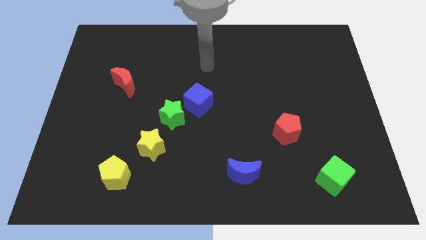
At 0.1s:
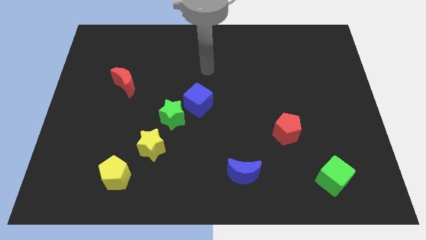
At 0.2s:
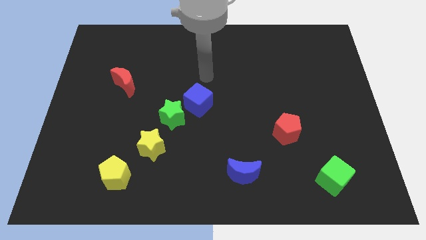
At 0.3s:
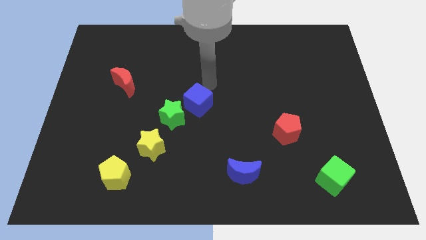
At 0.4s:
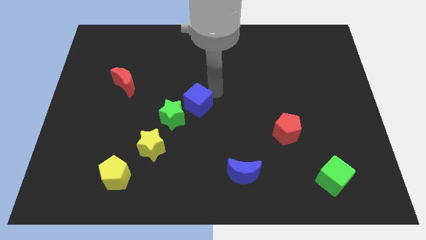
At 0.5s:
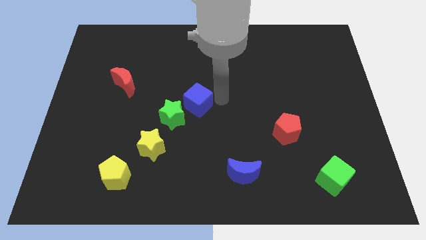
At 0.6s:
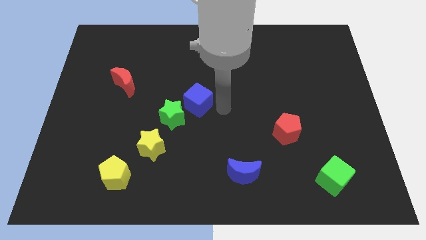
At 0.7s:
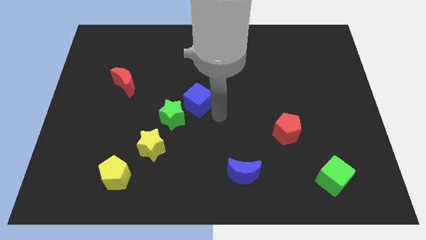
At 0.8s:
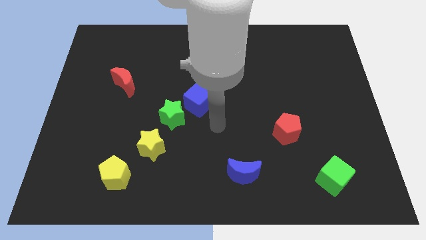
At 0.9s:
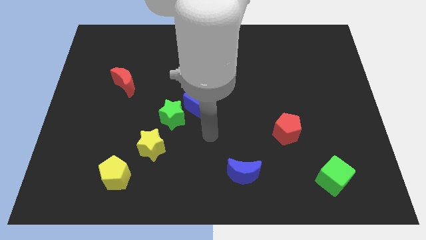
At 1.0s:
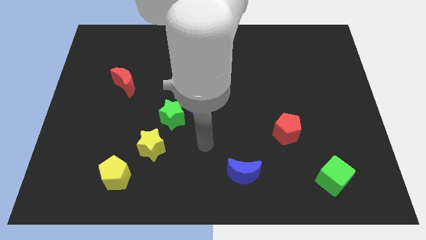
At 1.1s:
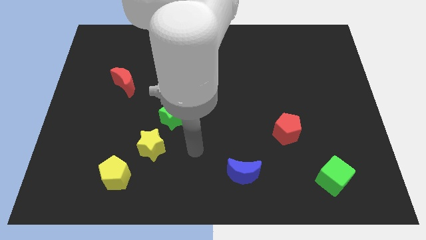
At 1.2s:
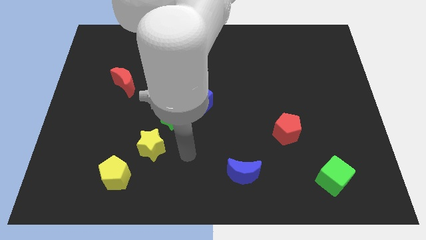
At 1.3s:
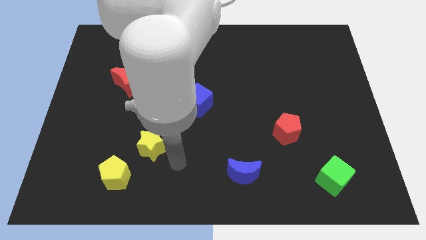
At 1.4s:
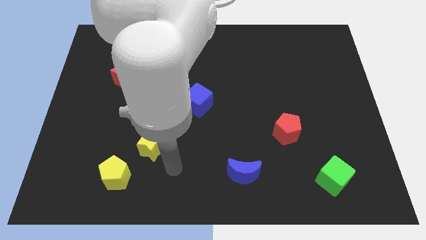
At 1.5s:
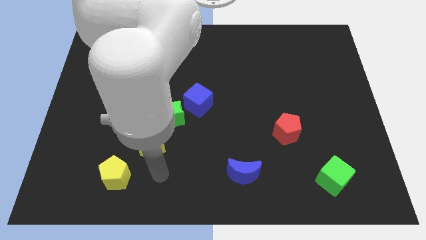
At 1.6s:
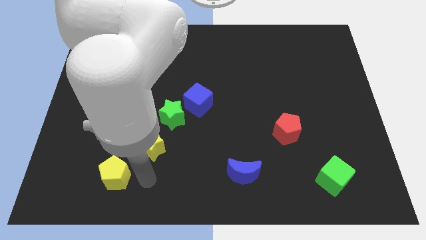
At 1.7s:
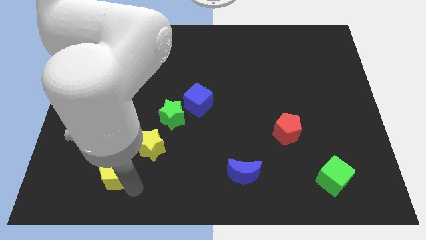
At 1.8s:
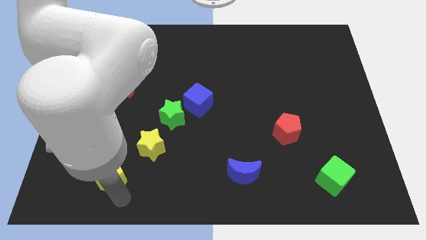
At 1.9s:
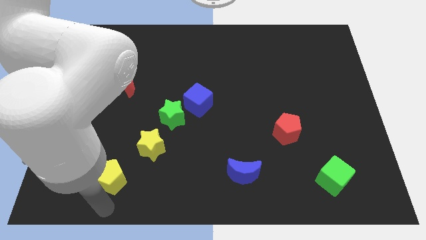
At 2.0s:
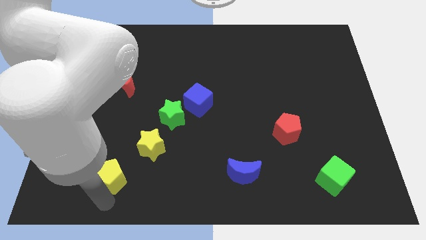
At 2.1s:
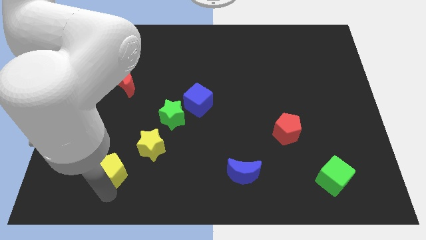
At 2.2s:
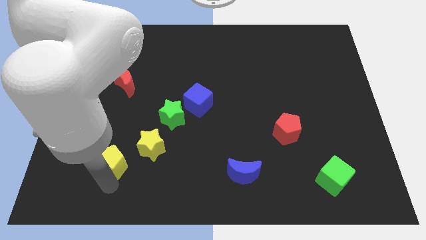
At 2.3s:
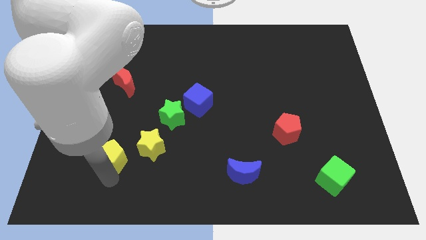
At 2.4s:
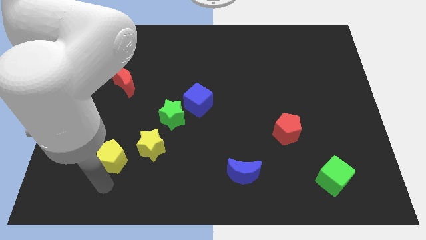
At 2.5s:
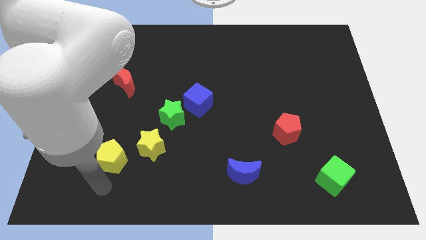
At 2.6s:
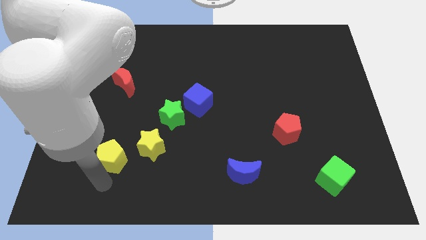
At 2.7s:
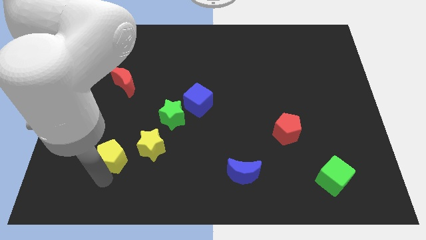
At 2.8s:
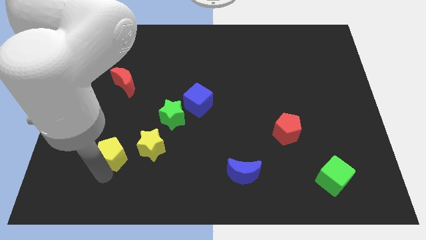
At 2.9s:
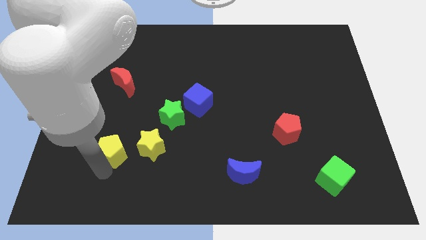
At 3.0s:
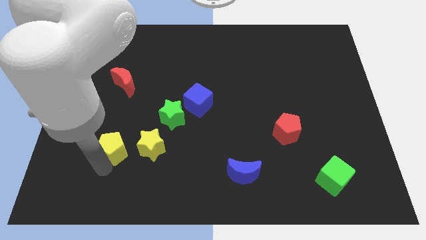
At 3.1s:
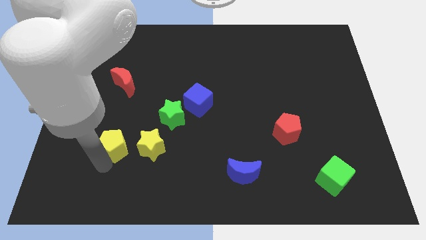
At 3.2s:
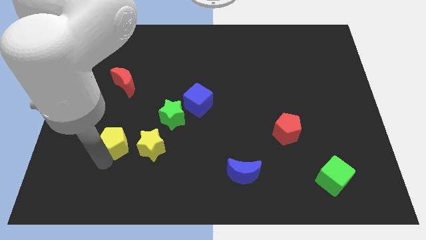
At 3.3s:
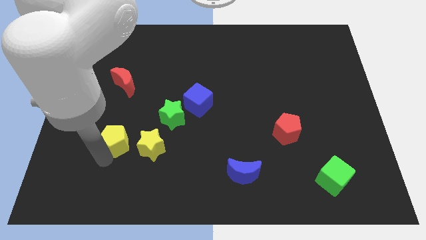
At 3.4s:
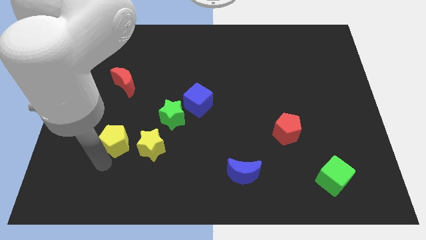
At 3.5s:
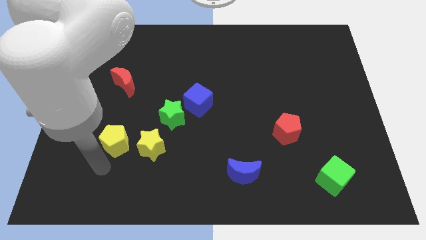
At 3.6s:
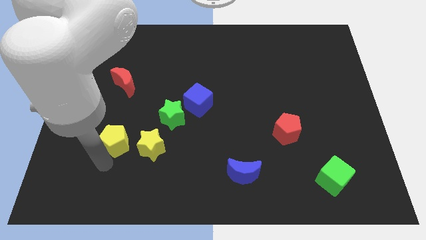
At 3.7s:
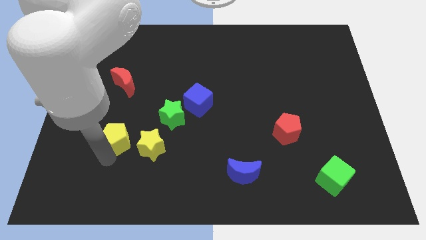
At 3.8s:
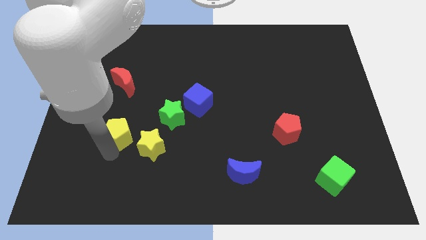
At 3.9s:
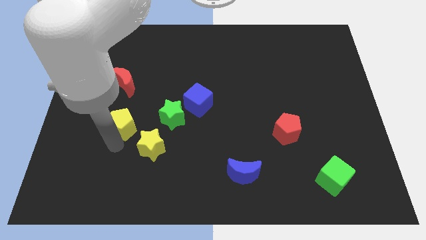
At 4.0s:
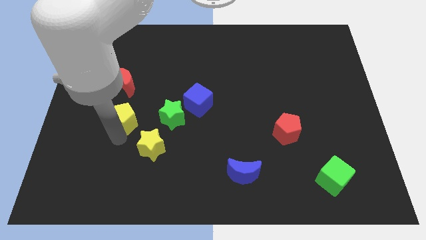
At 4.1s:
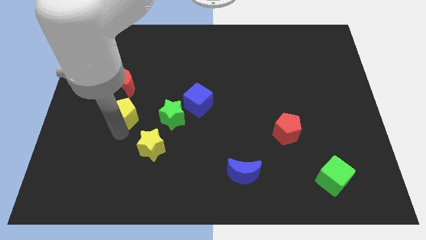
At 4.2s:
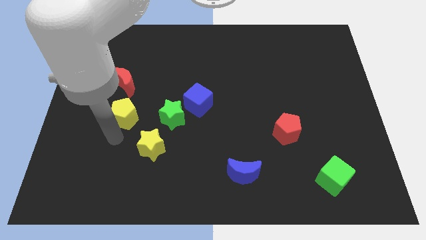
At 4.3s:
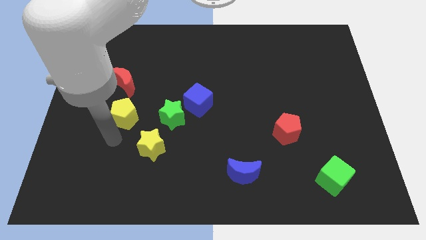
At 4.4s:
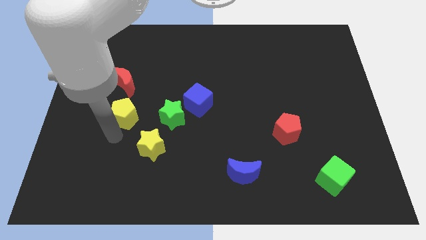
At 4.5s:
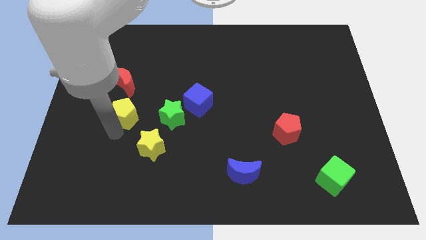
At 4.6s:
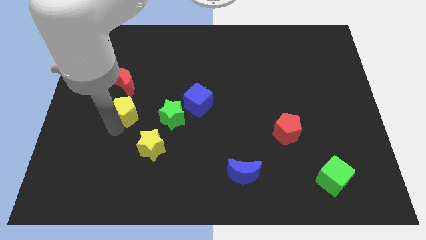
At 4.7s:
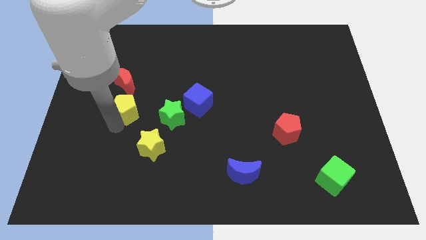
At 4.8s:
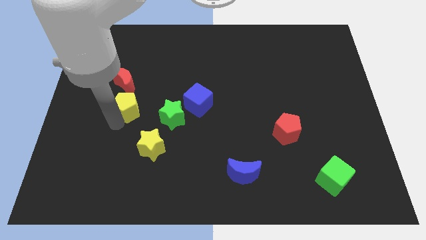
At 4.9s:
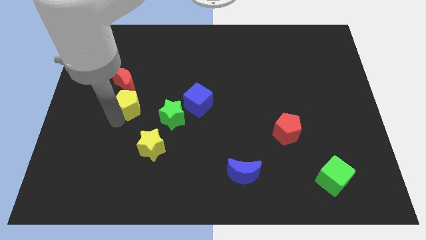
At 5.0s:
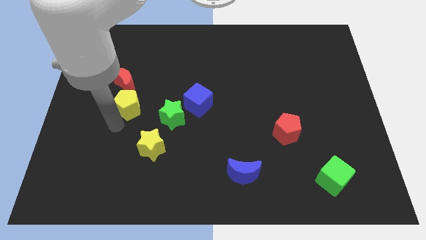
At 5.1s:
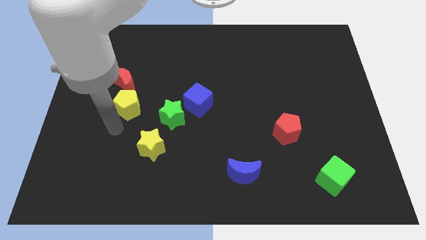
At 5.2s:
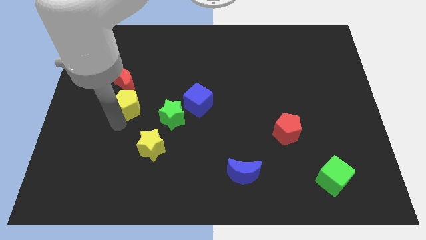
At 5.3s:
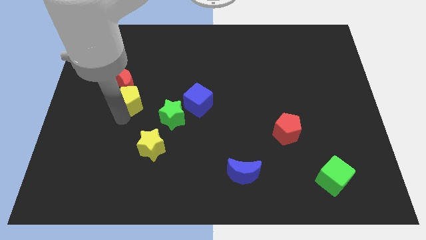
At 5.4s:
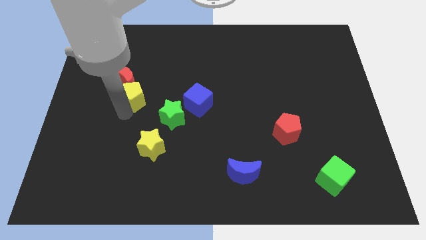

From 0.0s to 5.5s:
move the yellow pentagon upwards

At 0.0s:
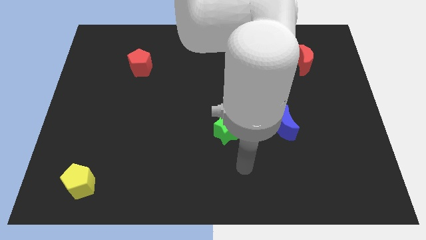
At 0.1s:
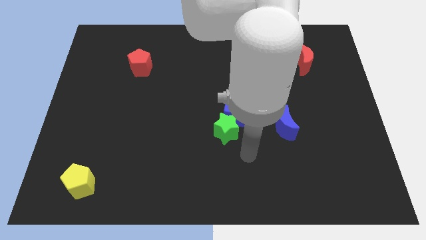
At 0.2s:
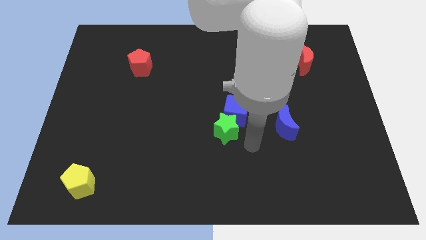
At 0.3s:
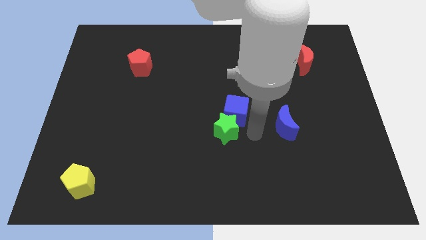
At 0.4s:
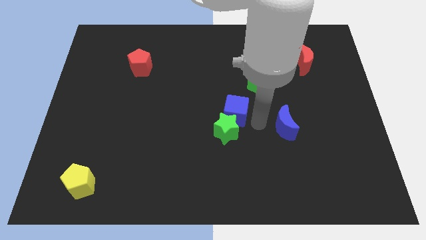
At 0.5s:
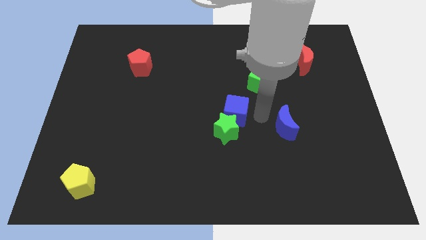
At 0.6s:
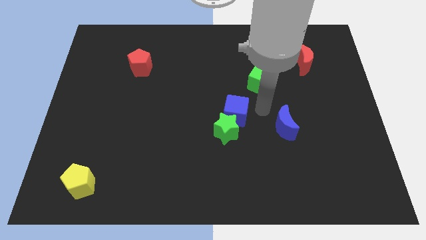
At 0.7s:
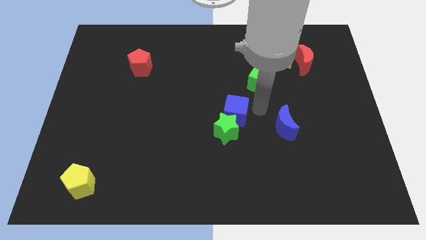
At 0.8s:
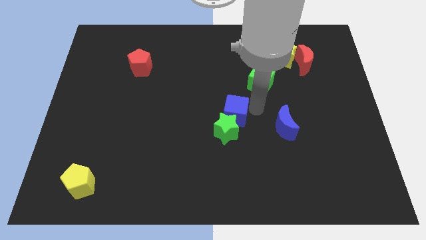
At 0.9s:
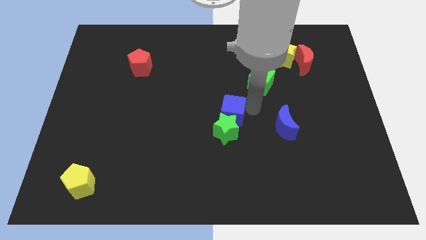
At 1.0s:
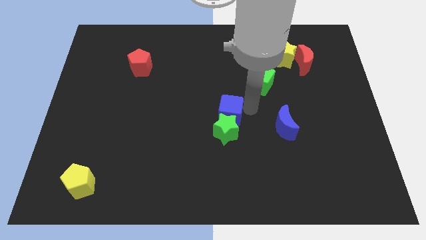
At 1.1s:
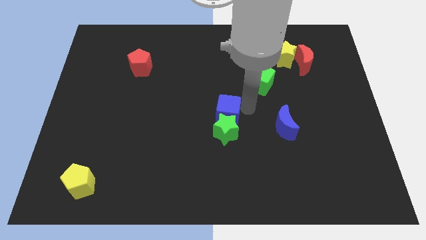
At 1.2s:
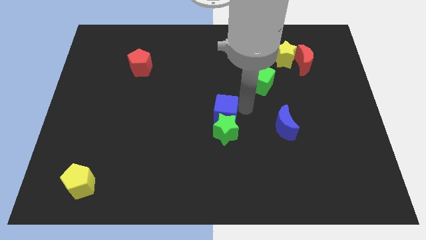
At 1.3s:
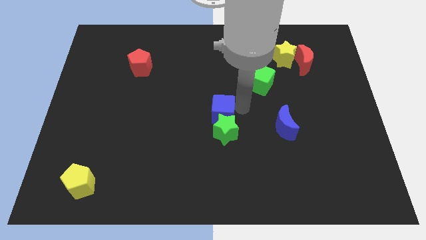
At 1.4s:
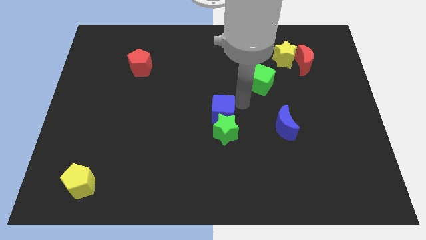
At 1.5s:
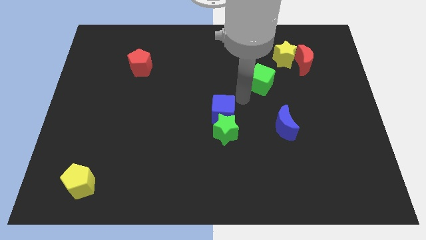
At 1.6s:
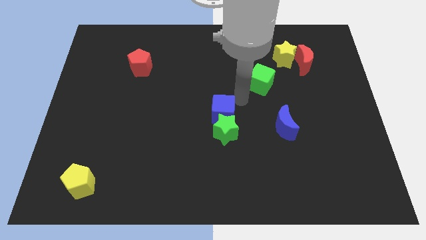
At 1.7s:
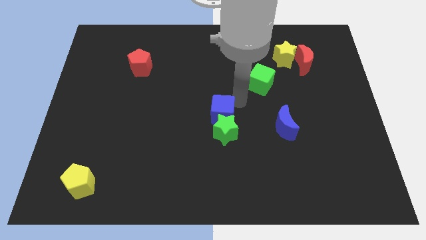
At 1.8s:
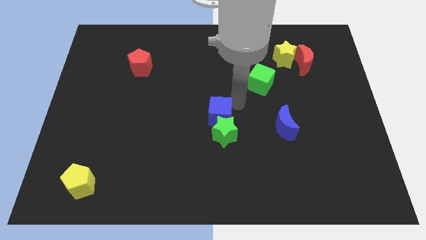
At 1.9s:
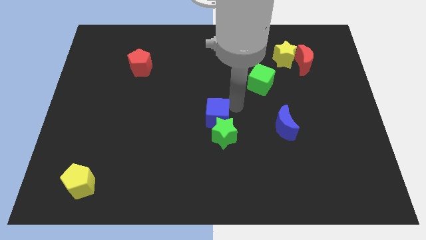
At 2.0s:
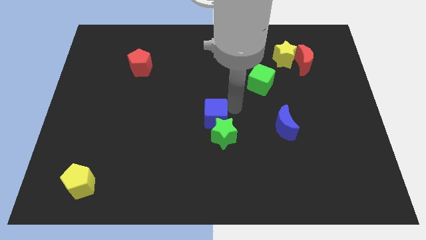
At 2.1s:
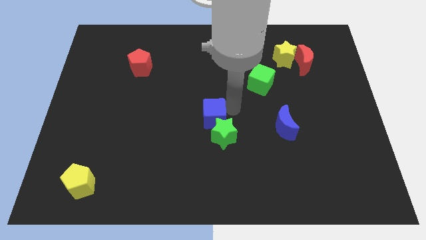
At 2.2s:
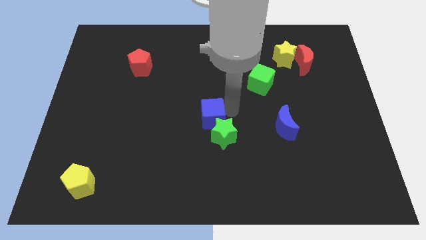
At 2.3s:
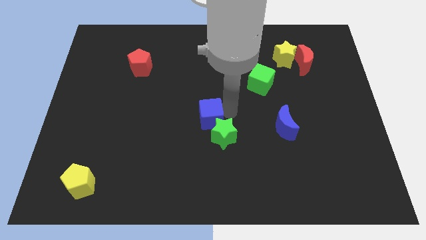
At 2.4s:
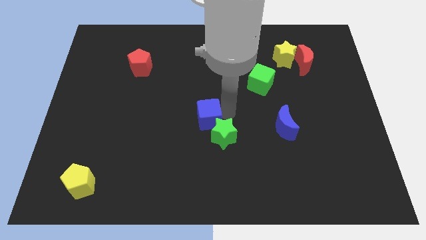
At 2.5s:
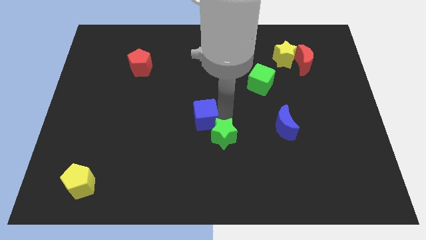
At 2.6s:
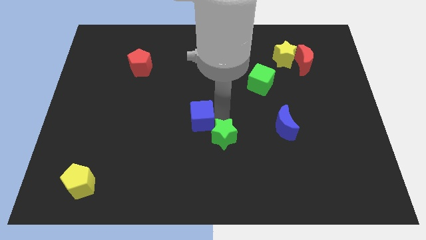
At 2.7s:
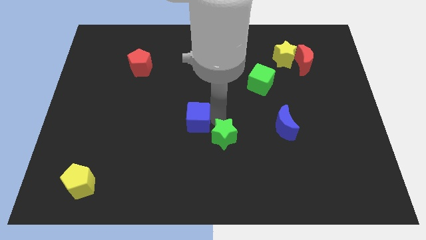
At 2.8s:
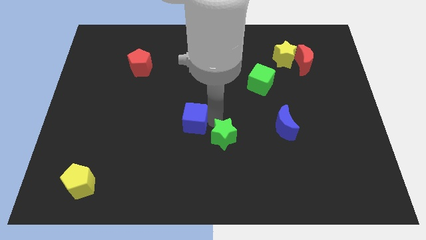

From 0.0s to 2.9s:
slightly move the blue cube down and to the left diagonally
